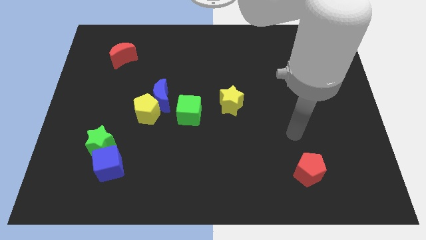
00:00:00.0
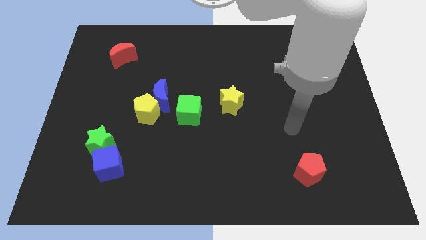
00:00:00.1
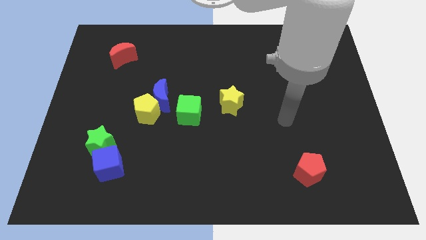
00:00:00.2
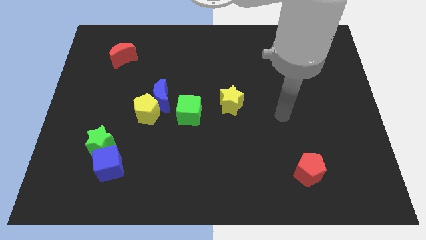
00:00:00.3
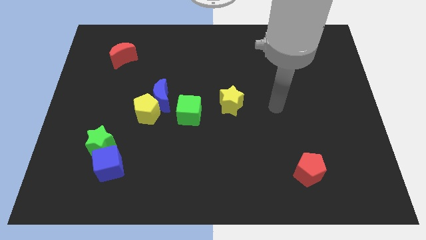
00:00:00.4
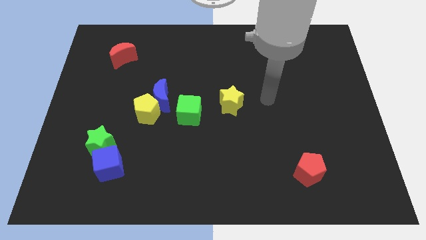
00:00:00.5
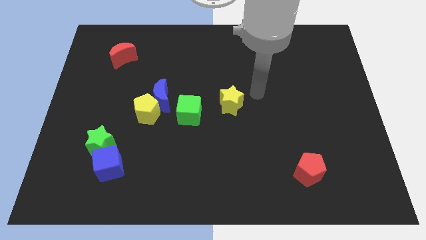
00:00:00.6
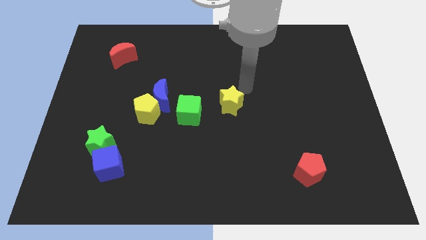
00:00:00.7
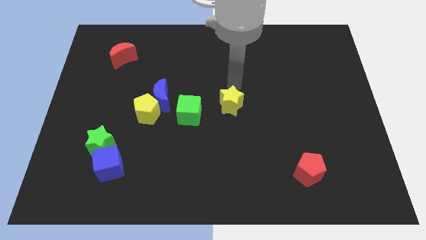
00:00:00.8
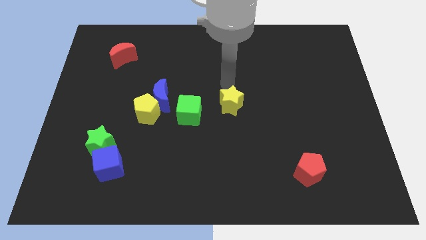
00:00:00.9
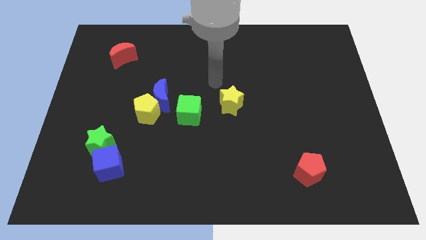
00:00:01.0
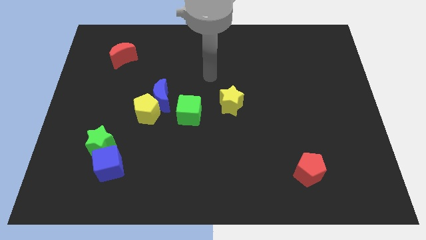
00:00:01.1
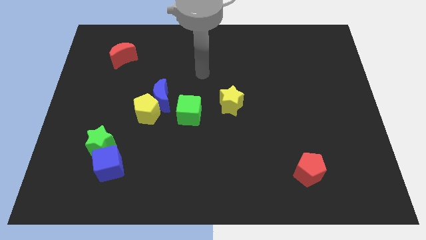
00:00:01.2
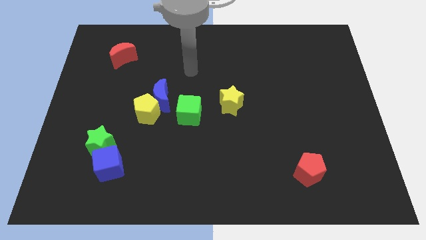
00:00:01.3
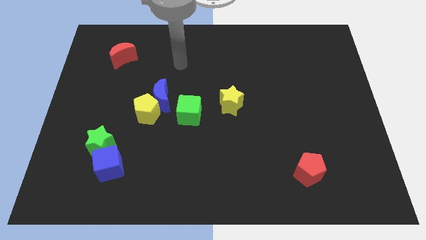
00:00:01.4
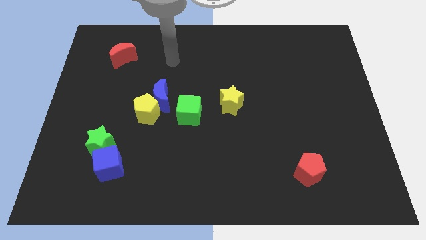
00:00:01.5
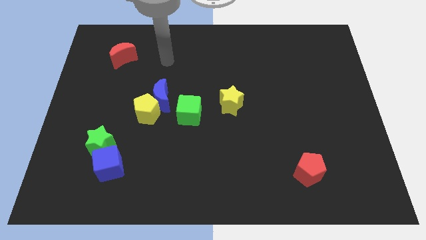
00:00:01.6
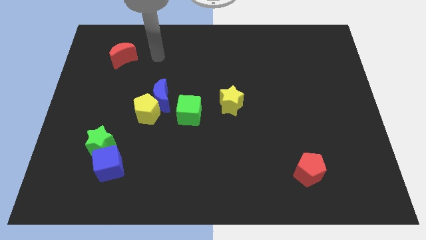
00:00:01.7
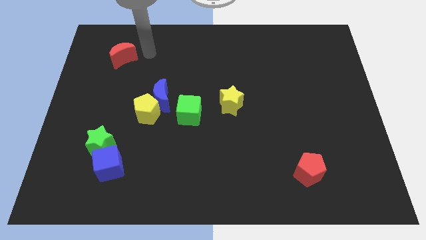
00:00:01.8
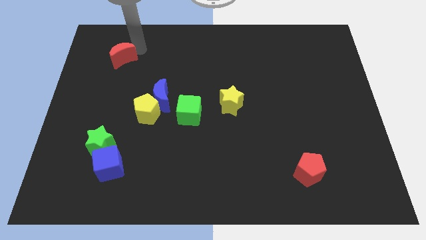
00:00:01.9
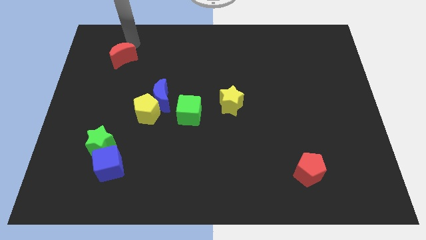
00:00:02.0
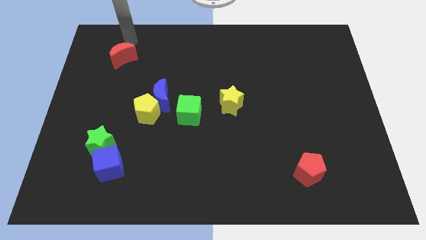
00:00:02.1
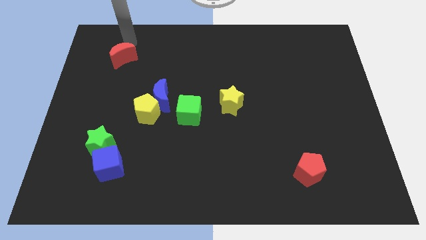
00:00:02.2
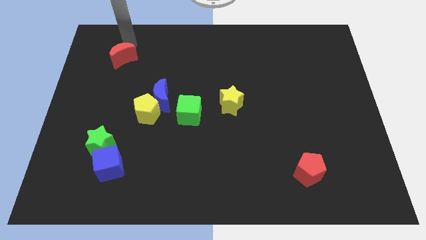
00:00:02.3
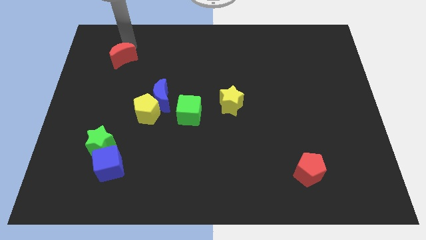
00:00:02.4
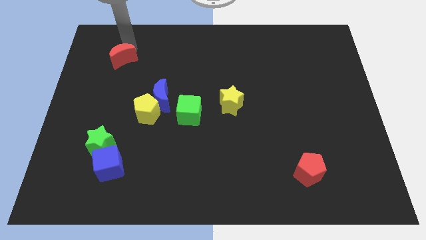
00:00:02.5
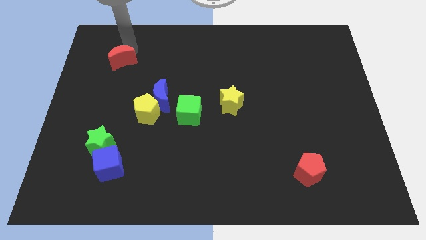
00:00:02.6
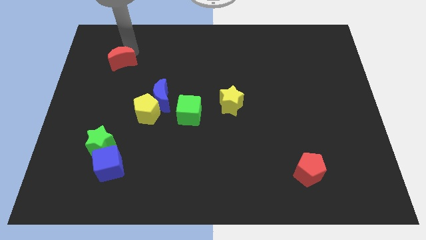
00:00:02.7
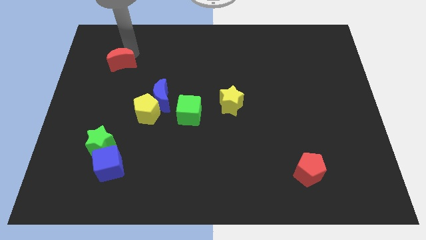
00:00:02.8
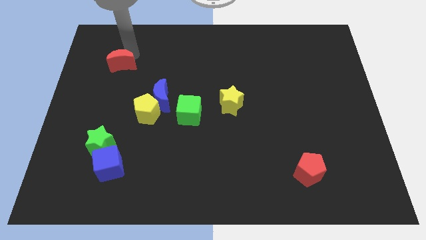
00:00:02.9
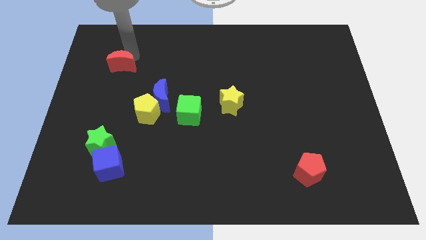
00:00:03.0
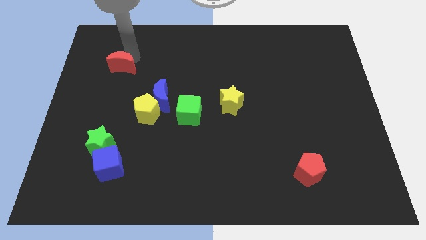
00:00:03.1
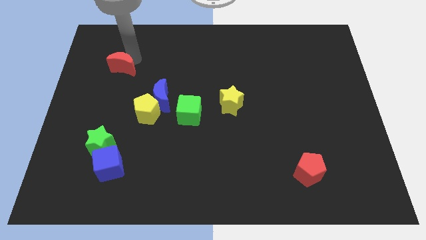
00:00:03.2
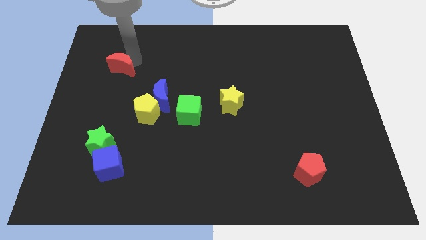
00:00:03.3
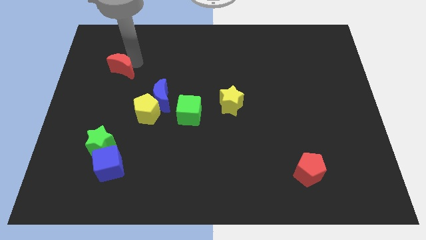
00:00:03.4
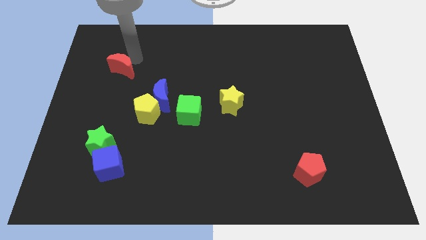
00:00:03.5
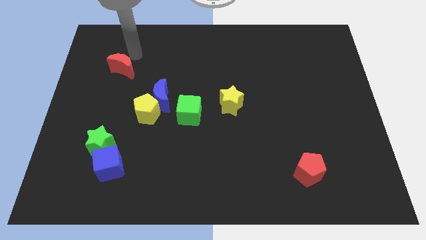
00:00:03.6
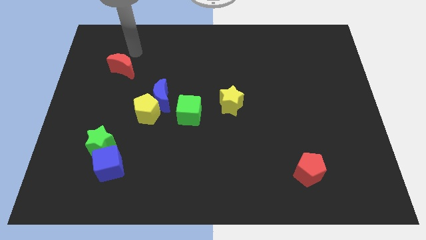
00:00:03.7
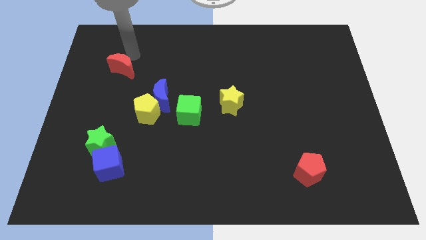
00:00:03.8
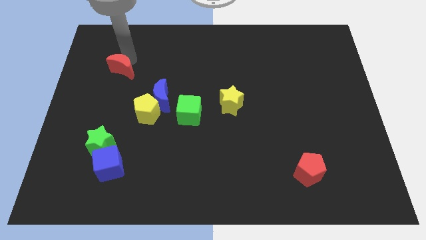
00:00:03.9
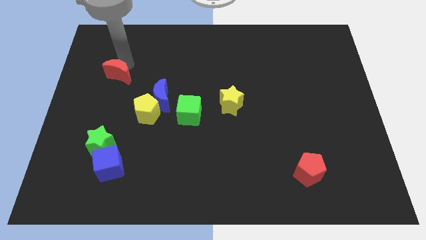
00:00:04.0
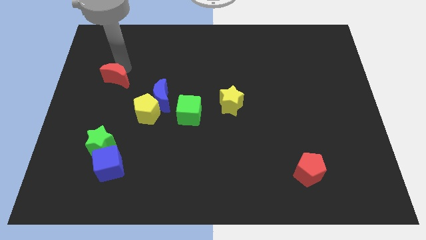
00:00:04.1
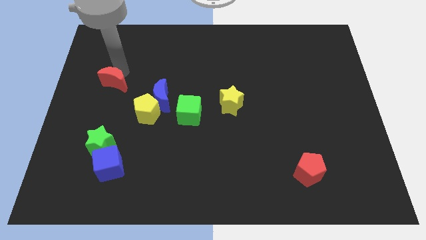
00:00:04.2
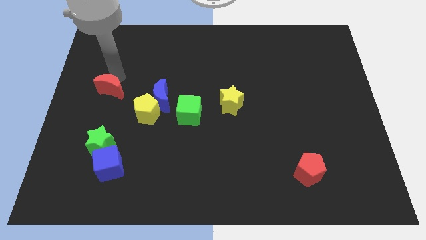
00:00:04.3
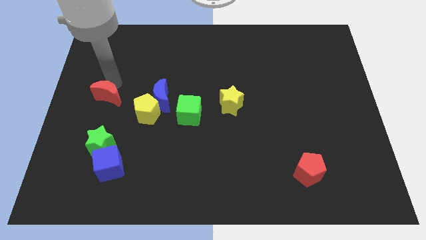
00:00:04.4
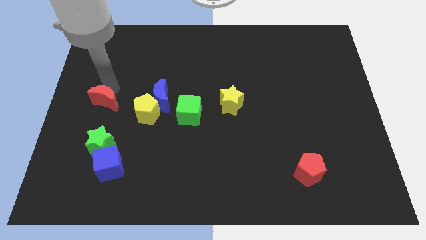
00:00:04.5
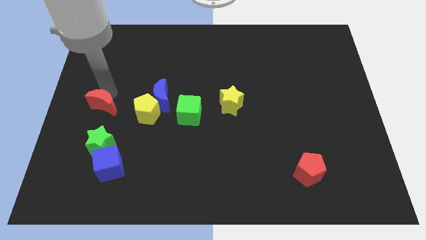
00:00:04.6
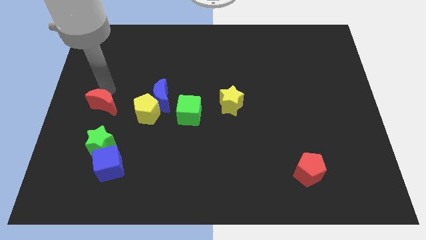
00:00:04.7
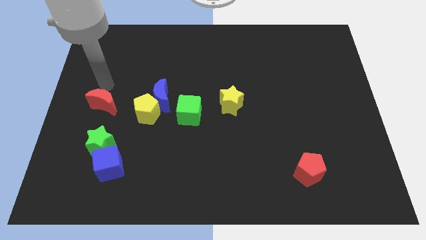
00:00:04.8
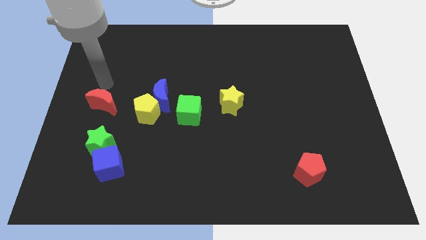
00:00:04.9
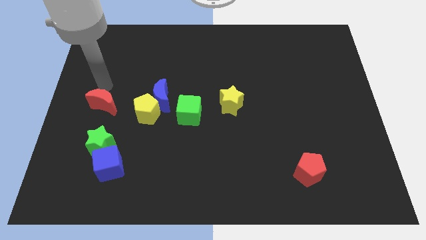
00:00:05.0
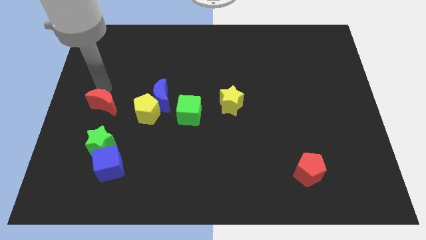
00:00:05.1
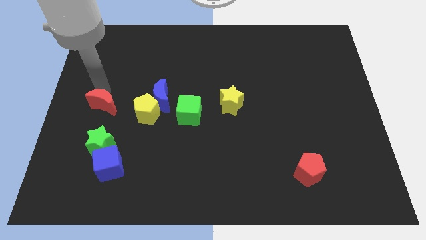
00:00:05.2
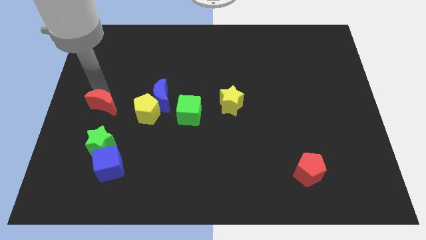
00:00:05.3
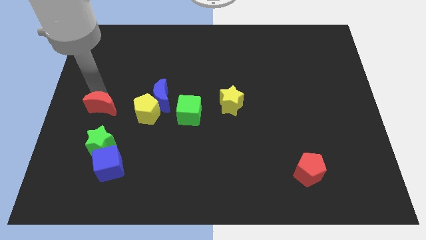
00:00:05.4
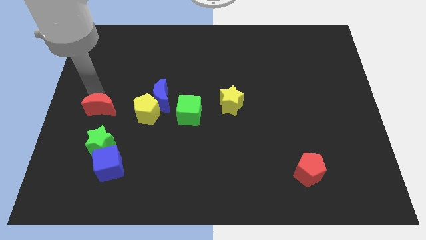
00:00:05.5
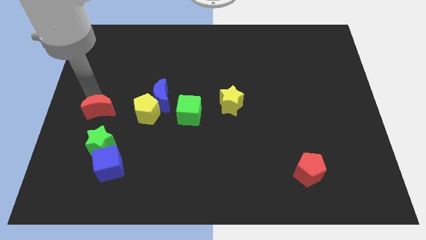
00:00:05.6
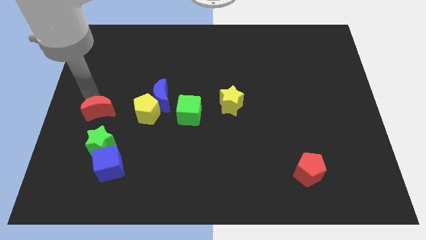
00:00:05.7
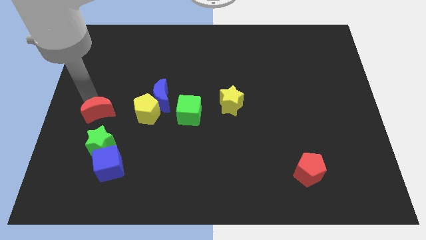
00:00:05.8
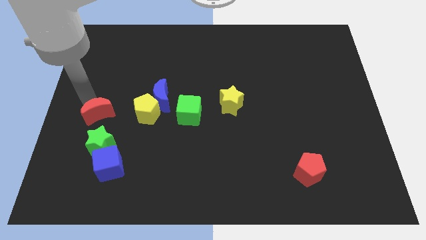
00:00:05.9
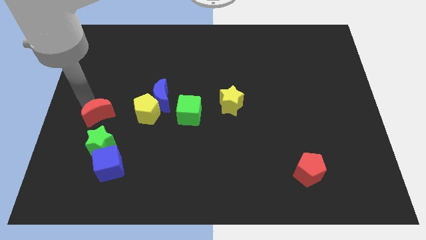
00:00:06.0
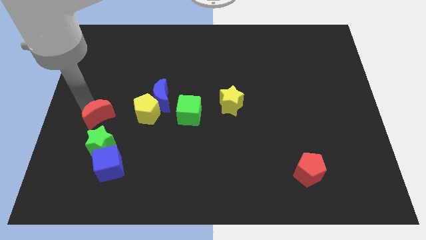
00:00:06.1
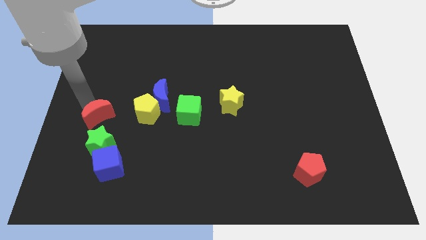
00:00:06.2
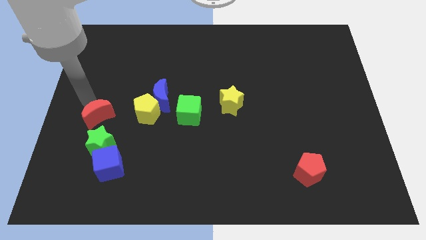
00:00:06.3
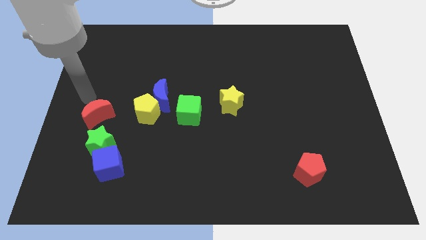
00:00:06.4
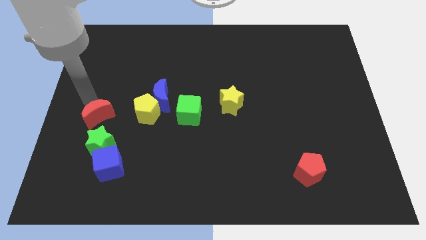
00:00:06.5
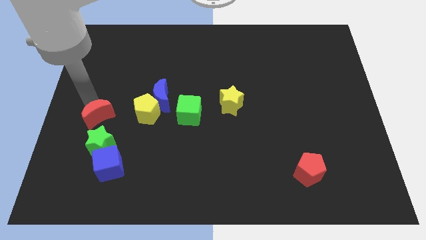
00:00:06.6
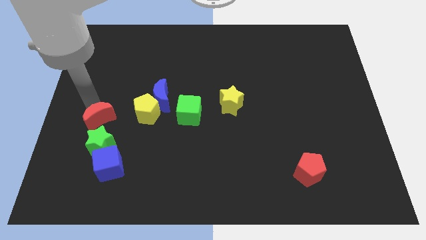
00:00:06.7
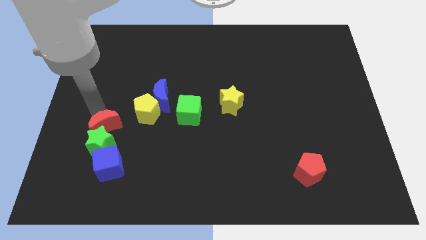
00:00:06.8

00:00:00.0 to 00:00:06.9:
push the red moon towards the green star

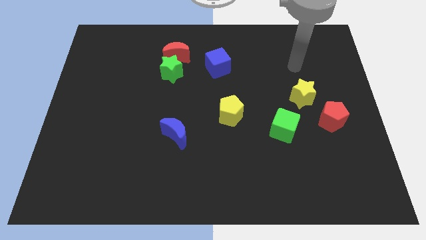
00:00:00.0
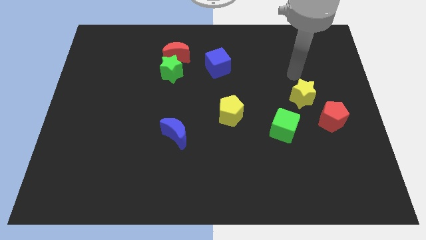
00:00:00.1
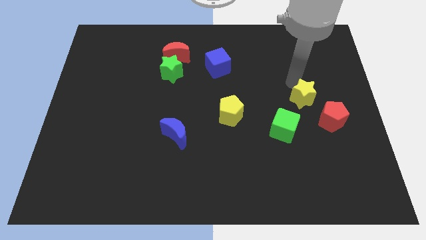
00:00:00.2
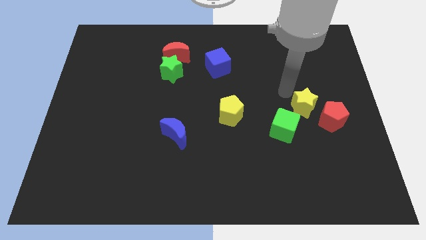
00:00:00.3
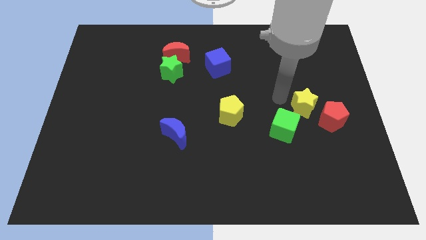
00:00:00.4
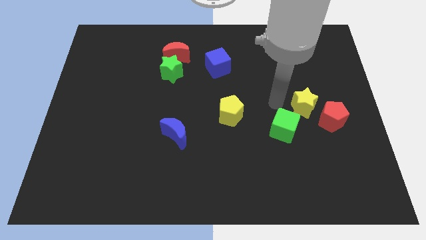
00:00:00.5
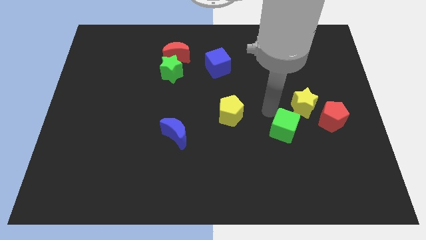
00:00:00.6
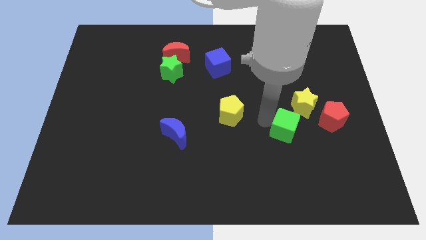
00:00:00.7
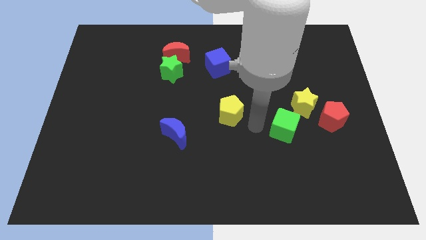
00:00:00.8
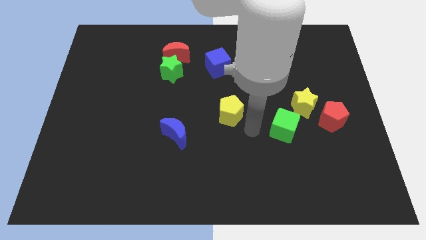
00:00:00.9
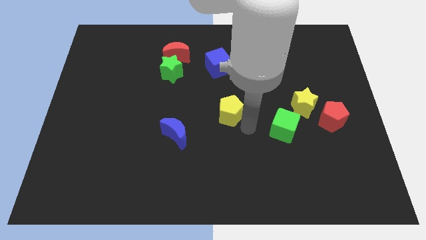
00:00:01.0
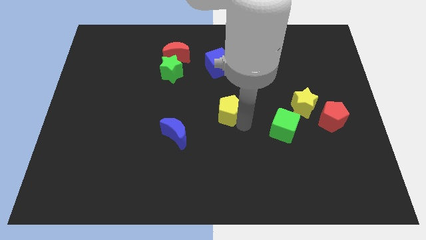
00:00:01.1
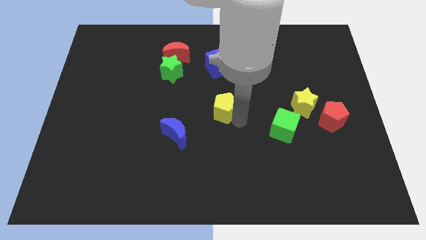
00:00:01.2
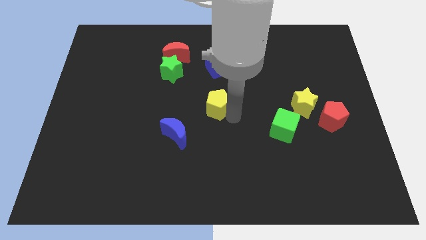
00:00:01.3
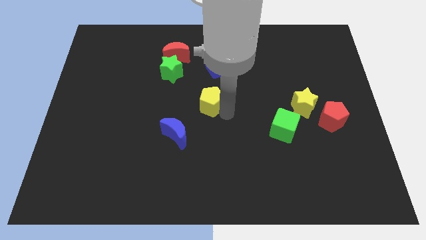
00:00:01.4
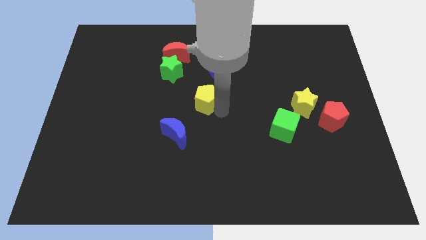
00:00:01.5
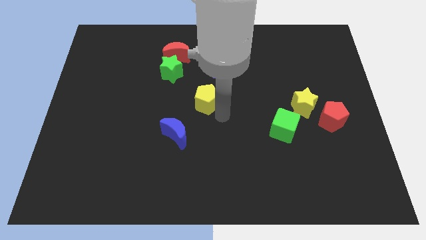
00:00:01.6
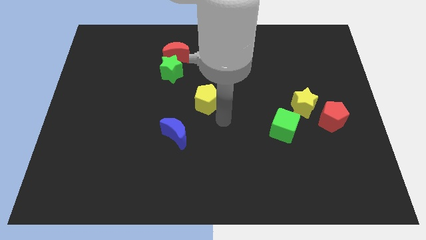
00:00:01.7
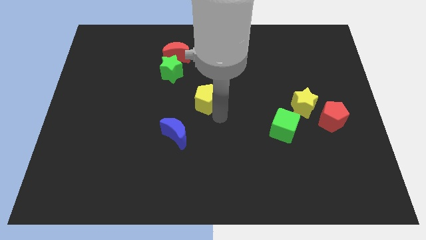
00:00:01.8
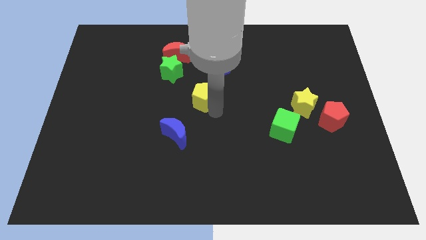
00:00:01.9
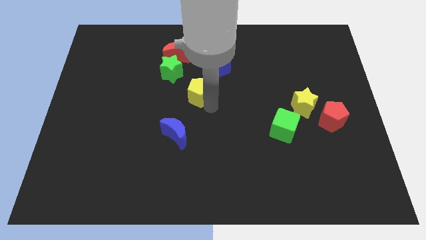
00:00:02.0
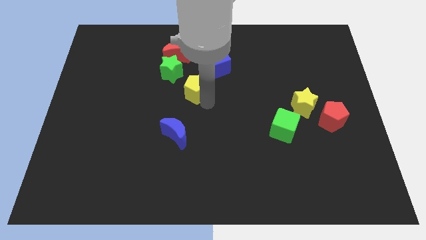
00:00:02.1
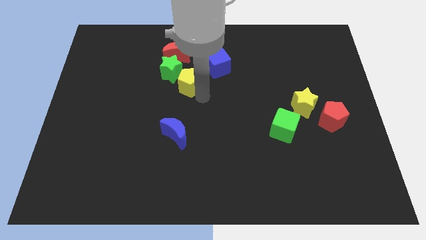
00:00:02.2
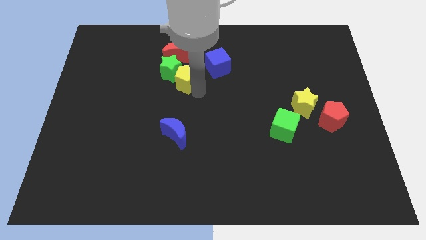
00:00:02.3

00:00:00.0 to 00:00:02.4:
move the yellow pentagon close to the green star
